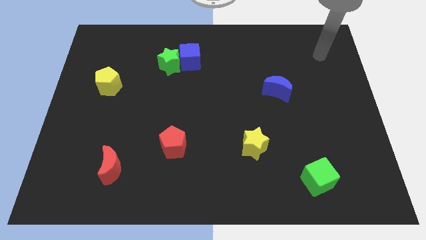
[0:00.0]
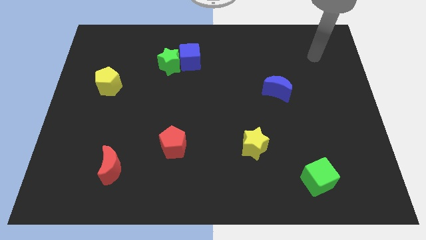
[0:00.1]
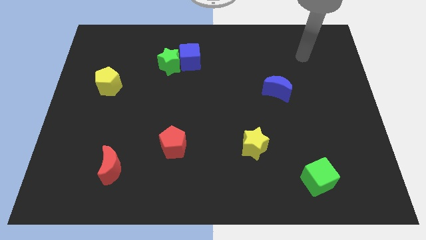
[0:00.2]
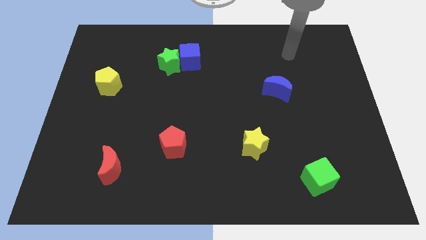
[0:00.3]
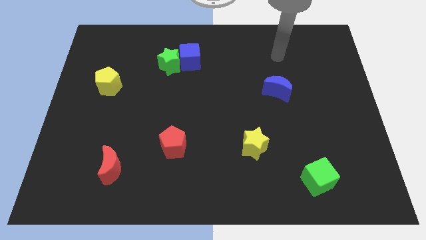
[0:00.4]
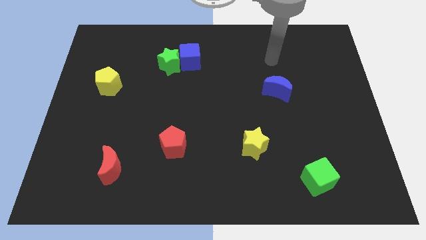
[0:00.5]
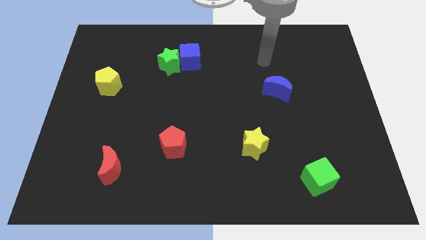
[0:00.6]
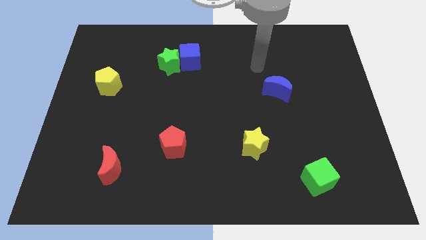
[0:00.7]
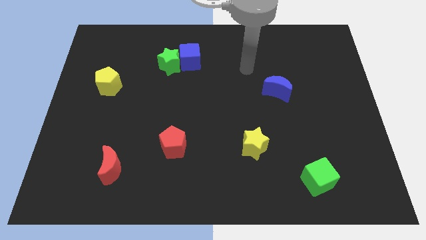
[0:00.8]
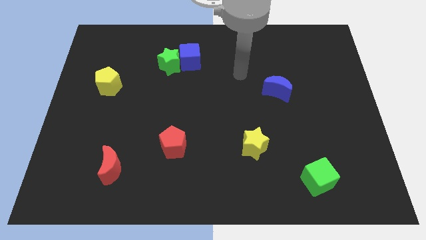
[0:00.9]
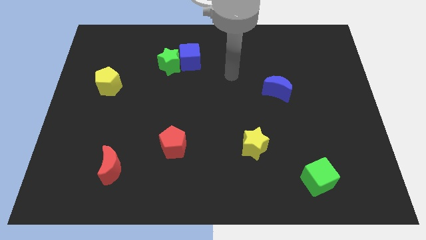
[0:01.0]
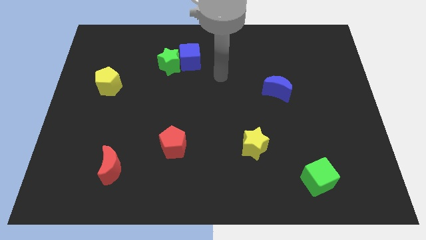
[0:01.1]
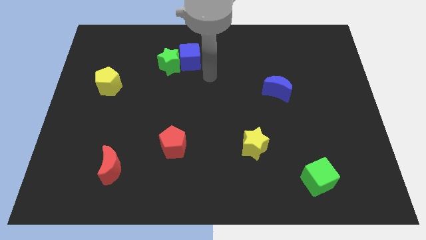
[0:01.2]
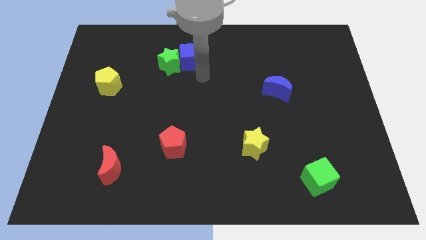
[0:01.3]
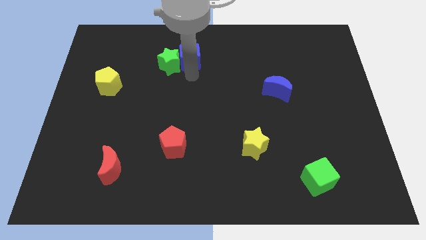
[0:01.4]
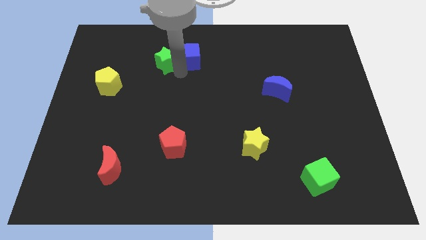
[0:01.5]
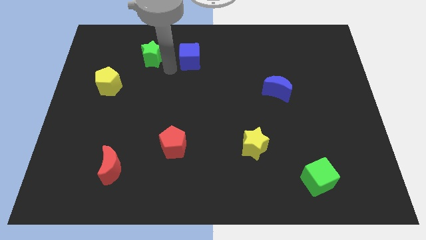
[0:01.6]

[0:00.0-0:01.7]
separate the blue cube from the green star

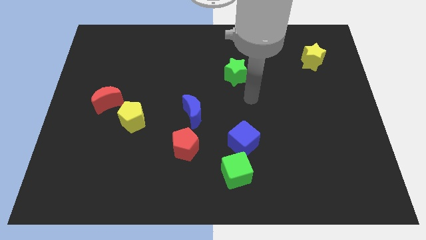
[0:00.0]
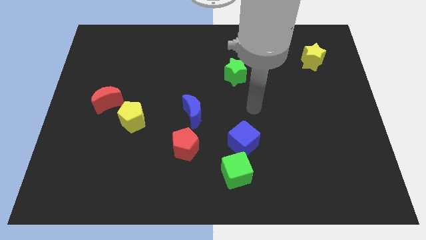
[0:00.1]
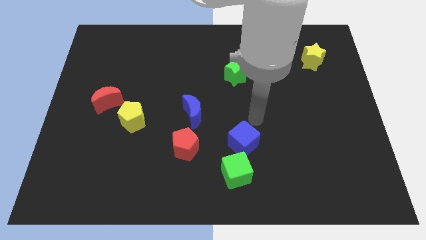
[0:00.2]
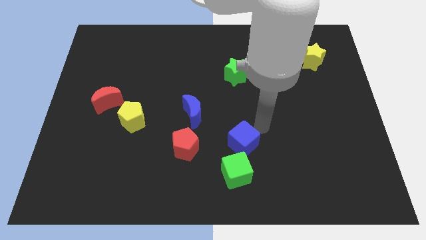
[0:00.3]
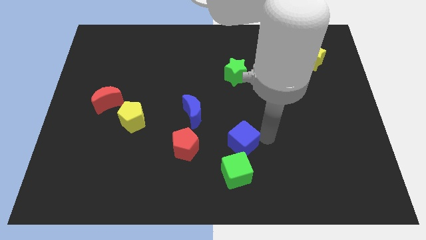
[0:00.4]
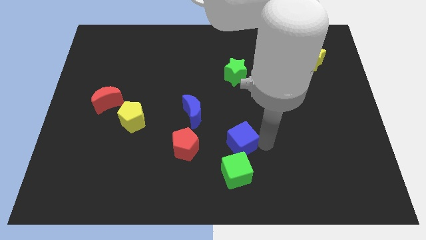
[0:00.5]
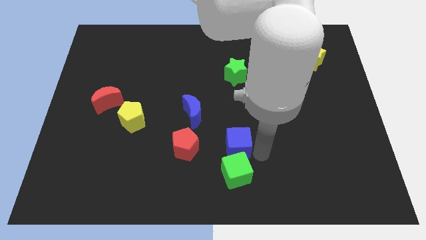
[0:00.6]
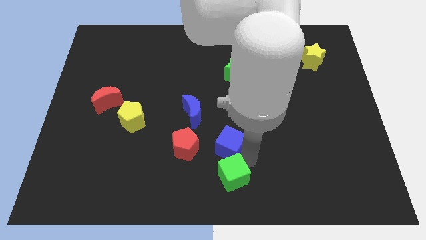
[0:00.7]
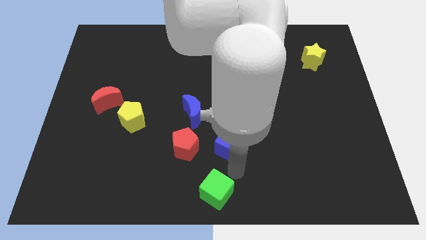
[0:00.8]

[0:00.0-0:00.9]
pull the blue cube apart from the green cube

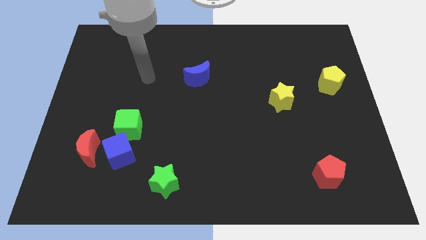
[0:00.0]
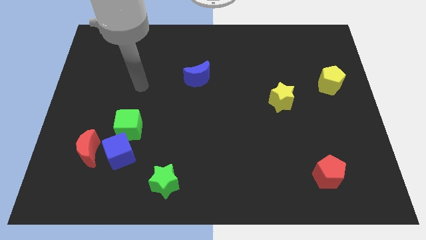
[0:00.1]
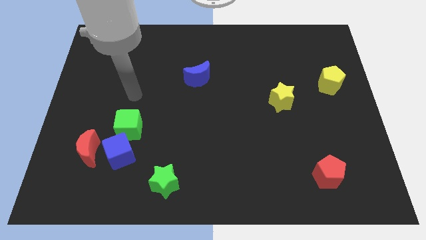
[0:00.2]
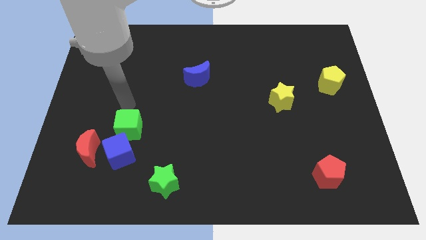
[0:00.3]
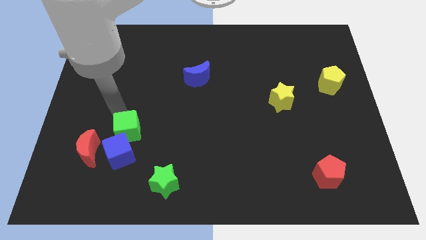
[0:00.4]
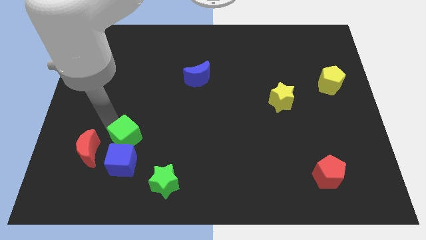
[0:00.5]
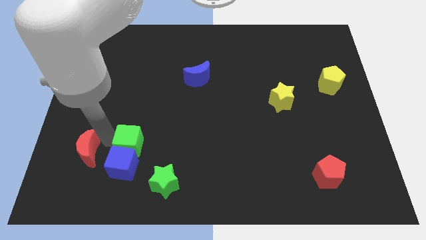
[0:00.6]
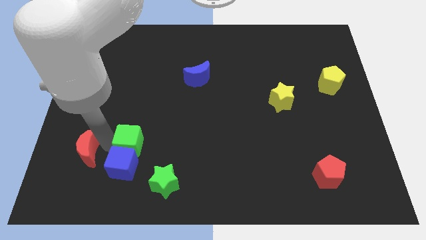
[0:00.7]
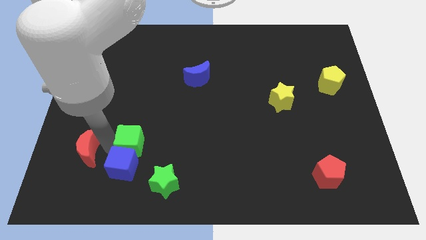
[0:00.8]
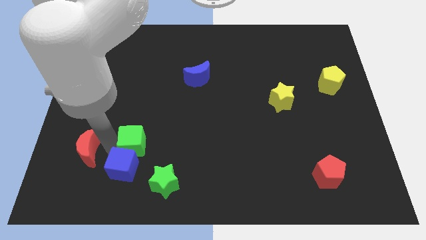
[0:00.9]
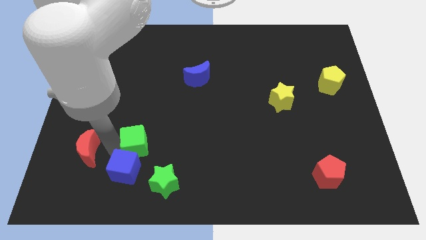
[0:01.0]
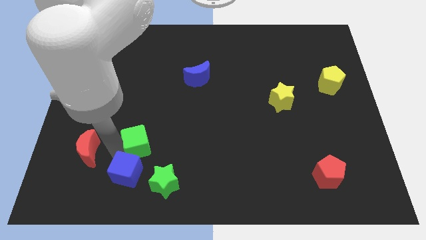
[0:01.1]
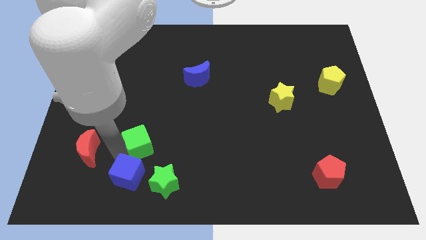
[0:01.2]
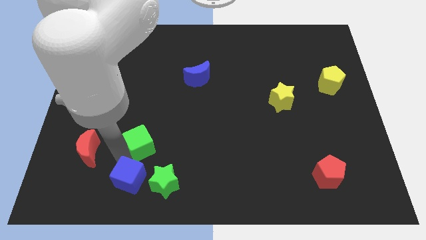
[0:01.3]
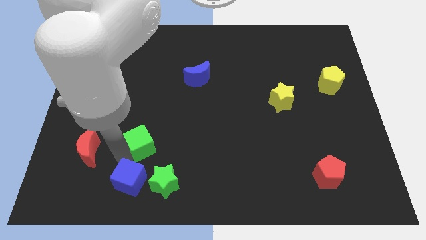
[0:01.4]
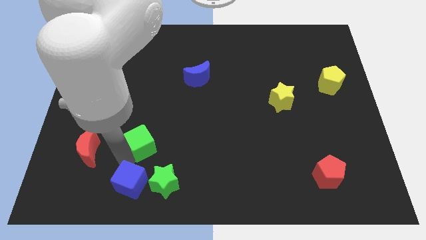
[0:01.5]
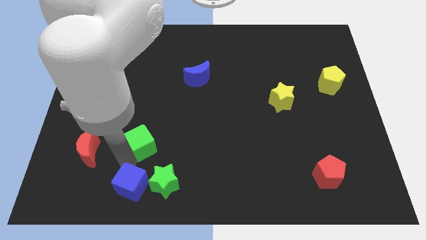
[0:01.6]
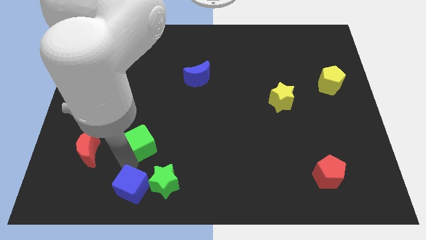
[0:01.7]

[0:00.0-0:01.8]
move the blue cube away from the green cube and red moon

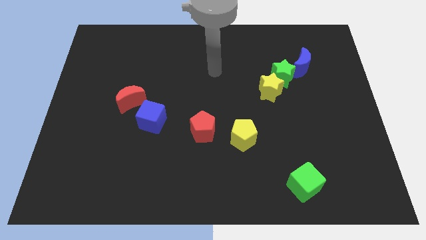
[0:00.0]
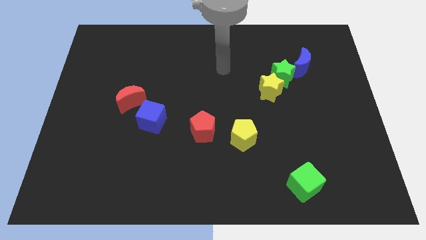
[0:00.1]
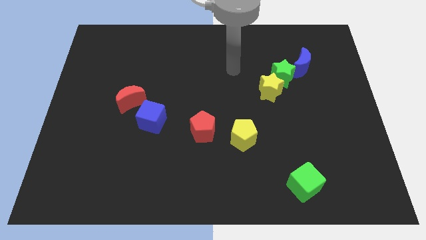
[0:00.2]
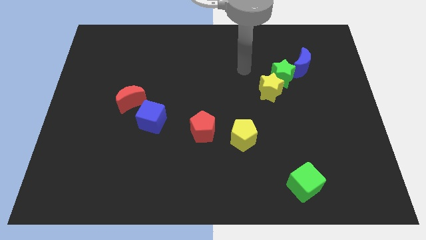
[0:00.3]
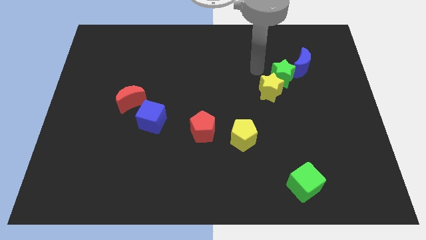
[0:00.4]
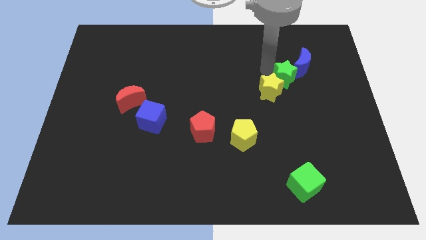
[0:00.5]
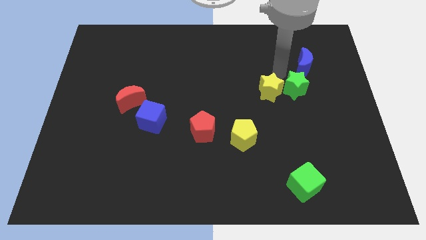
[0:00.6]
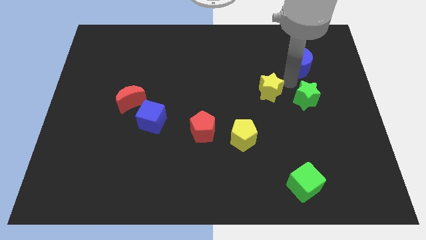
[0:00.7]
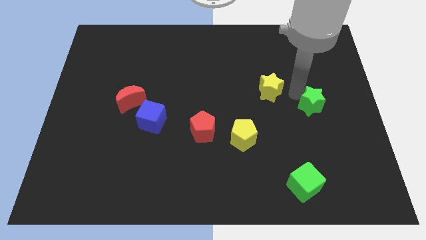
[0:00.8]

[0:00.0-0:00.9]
separate the yellow star from the green star

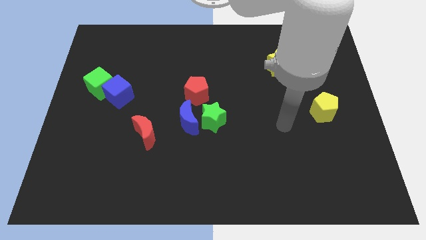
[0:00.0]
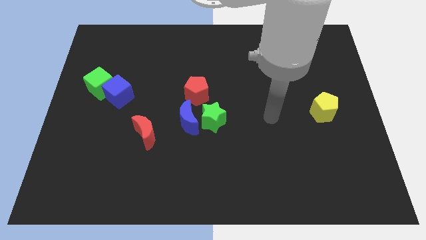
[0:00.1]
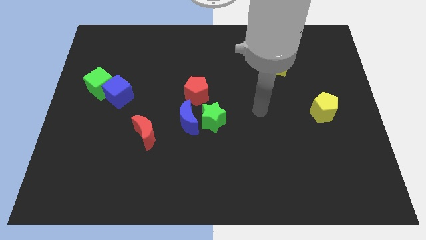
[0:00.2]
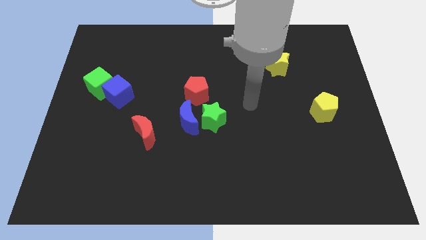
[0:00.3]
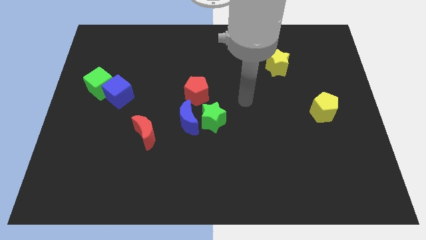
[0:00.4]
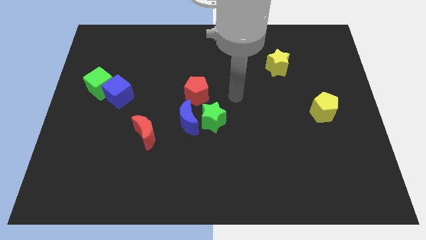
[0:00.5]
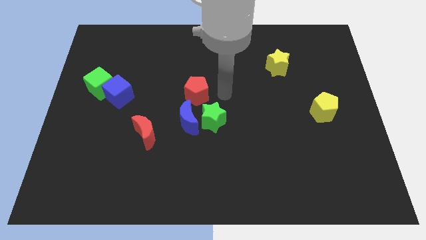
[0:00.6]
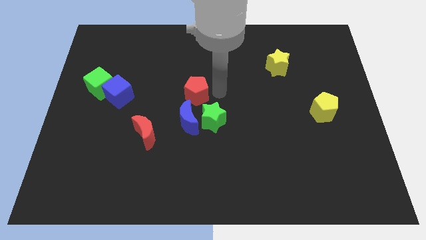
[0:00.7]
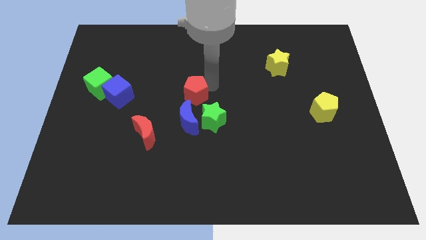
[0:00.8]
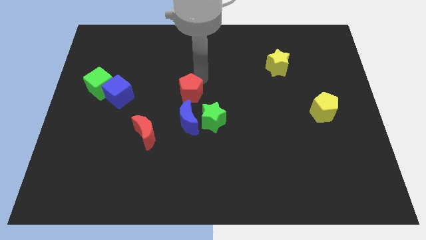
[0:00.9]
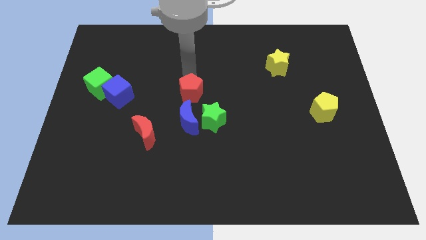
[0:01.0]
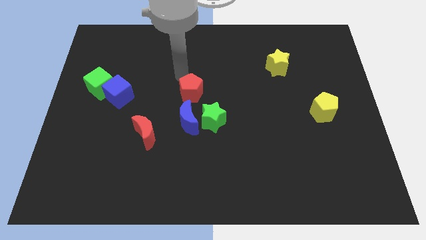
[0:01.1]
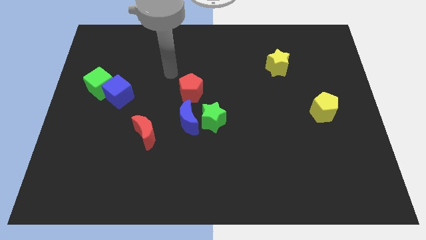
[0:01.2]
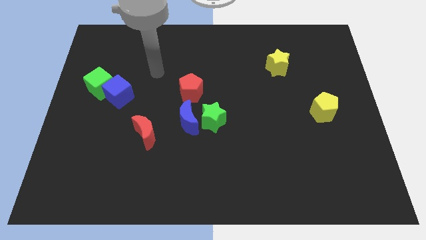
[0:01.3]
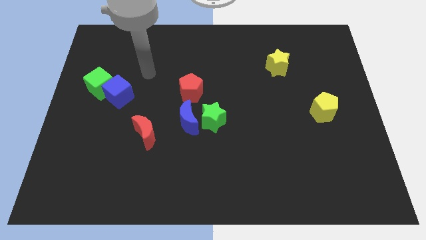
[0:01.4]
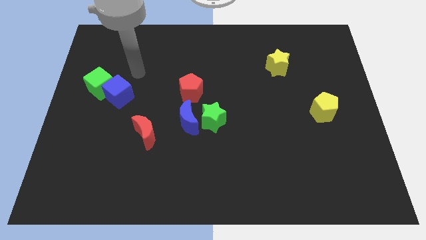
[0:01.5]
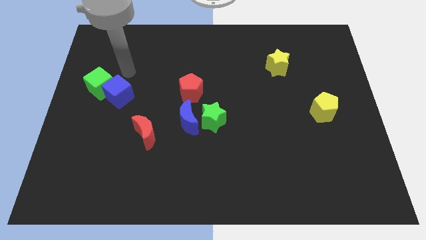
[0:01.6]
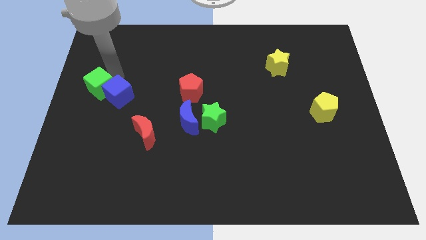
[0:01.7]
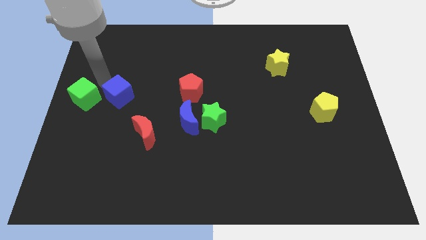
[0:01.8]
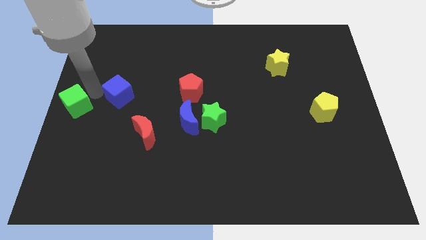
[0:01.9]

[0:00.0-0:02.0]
separate the blue cube from the green cube

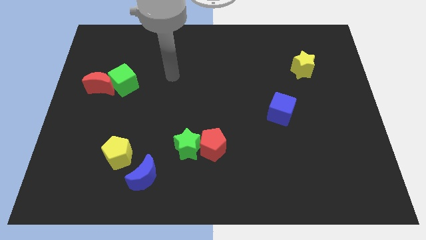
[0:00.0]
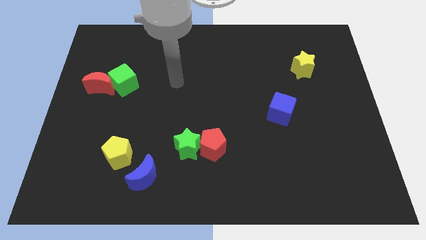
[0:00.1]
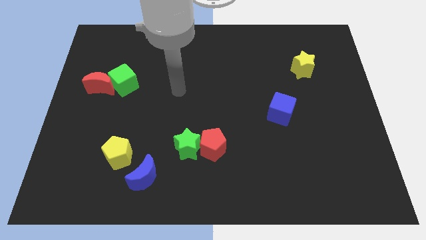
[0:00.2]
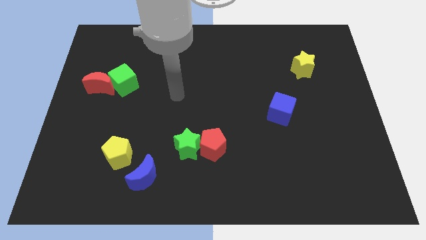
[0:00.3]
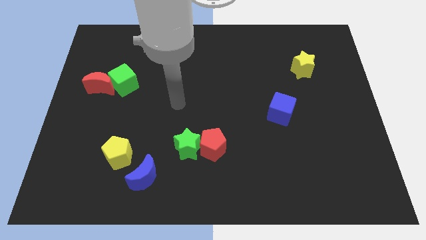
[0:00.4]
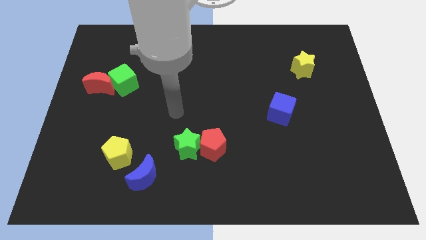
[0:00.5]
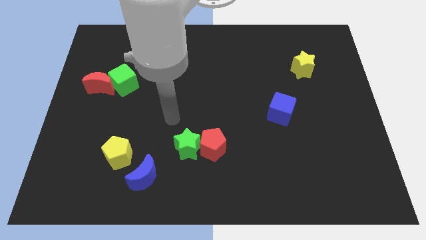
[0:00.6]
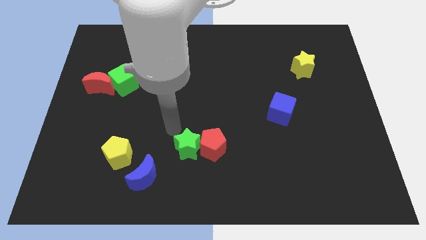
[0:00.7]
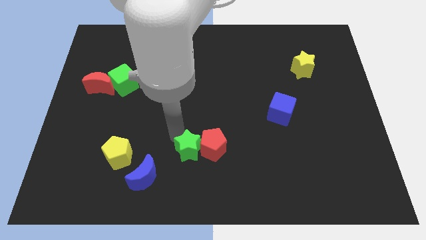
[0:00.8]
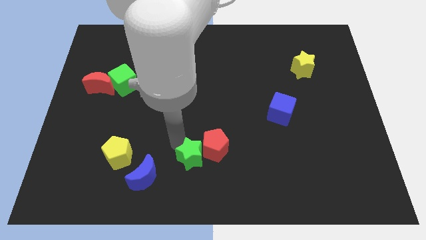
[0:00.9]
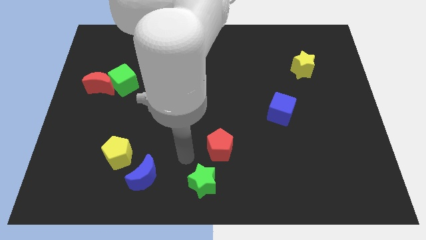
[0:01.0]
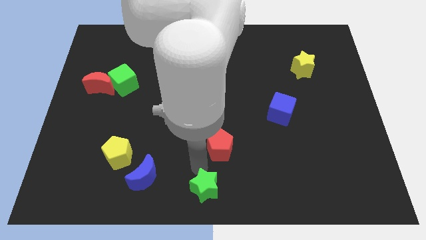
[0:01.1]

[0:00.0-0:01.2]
separate the red pentagon from the green star

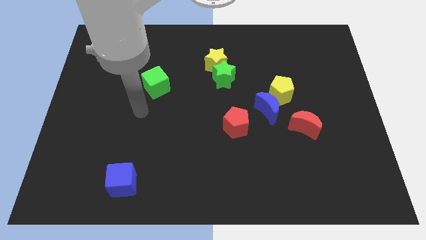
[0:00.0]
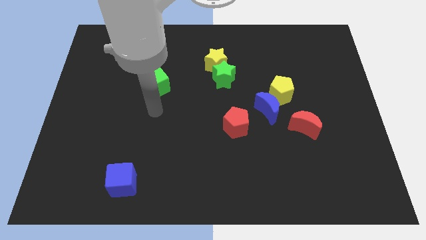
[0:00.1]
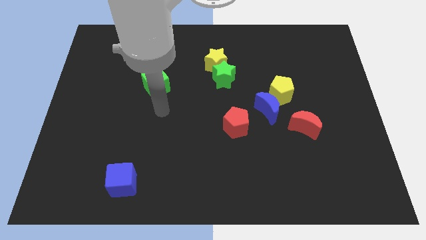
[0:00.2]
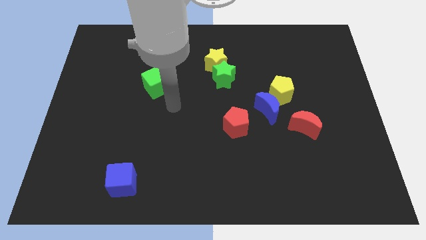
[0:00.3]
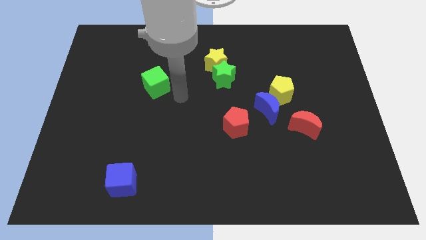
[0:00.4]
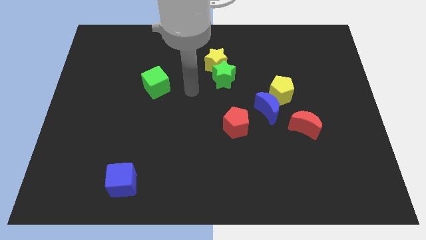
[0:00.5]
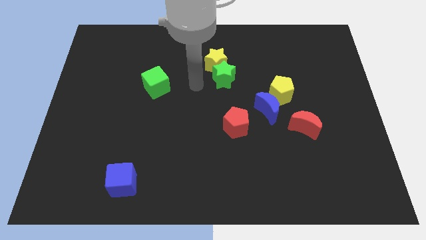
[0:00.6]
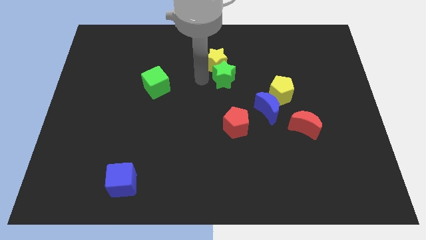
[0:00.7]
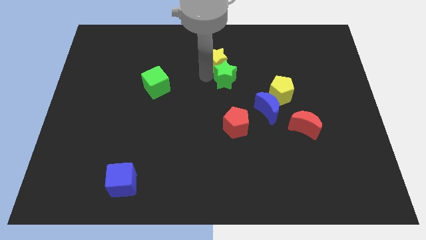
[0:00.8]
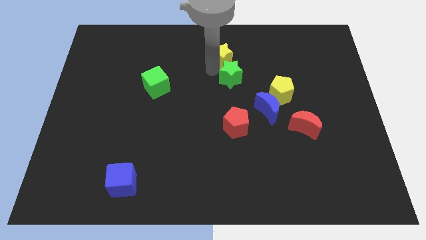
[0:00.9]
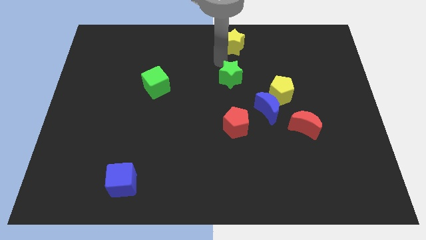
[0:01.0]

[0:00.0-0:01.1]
separate the green star from the yellow star
